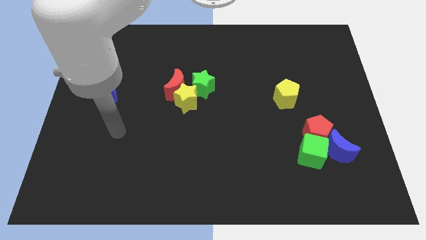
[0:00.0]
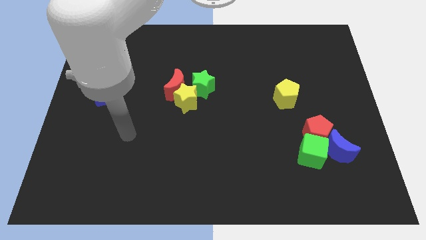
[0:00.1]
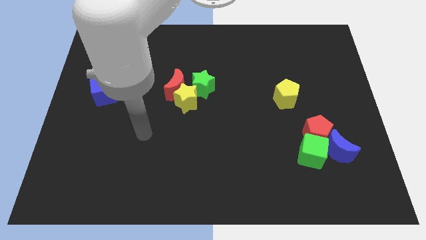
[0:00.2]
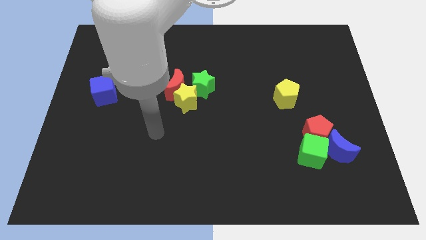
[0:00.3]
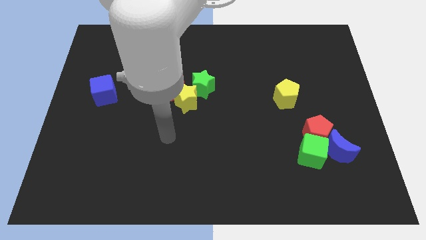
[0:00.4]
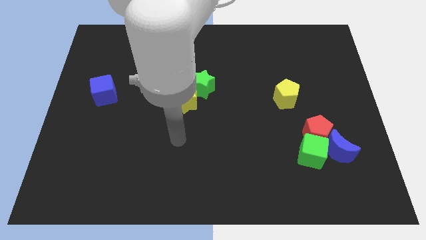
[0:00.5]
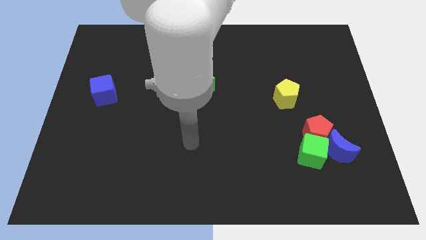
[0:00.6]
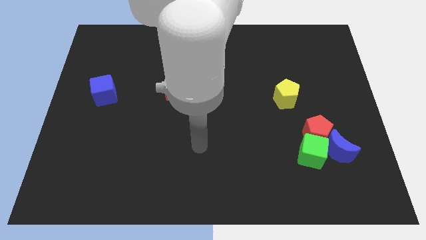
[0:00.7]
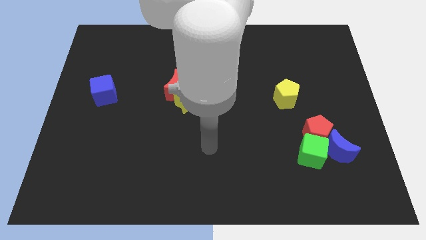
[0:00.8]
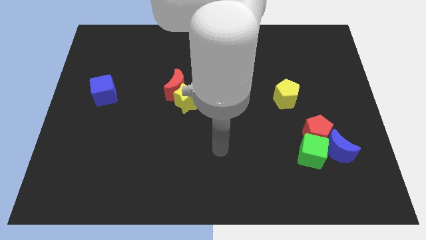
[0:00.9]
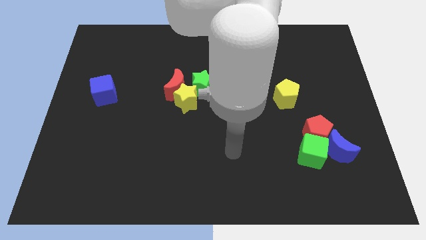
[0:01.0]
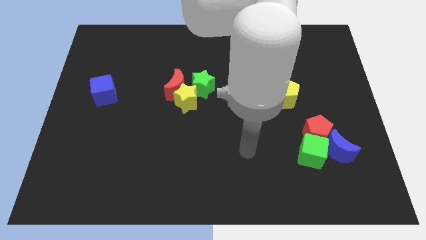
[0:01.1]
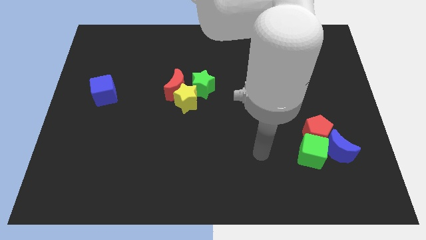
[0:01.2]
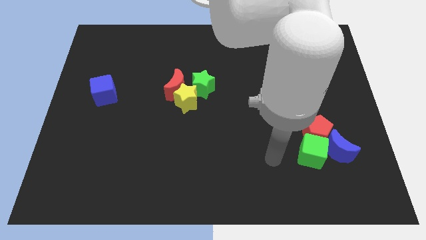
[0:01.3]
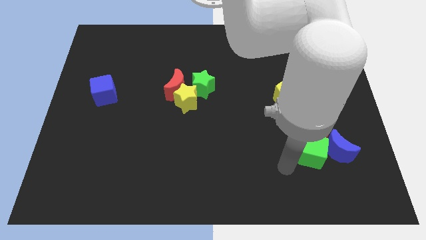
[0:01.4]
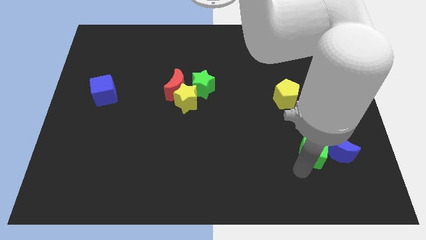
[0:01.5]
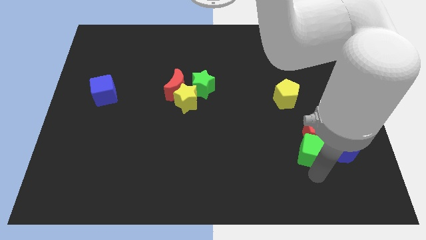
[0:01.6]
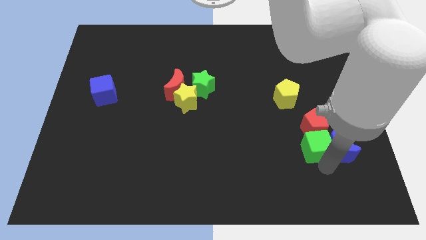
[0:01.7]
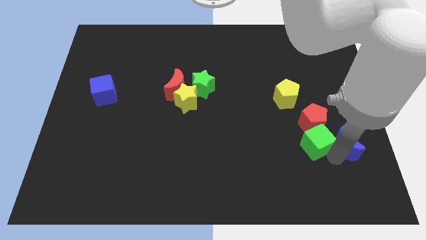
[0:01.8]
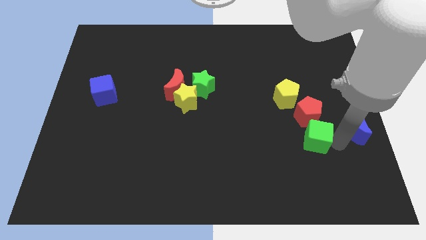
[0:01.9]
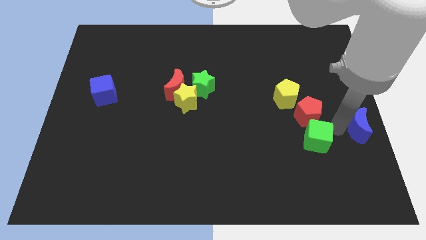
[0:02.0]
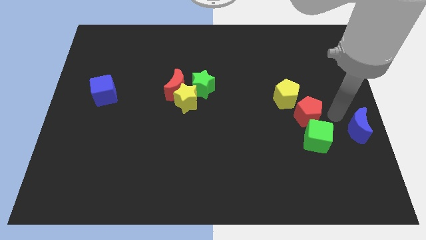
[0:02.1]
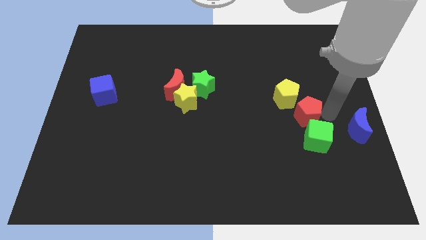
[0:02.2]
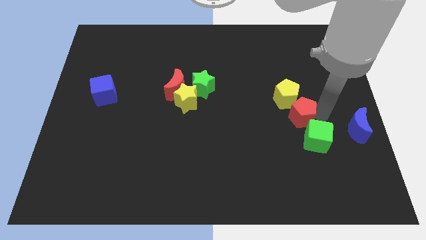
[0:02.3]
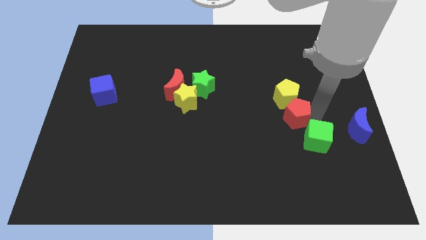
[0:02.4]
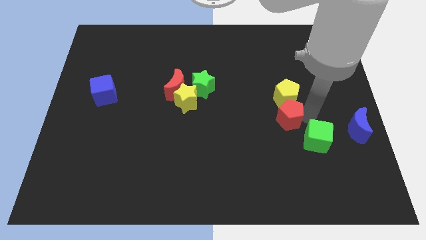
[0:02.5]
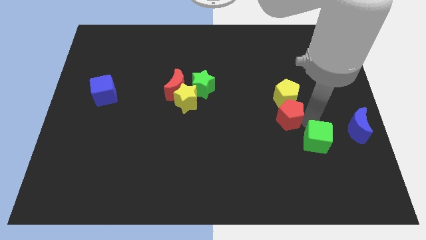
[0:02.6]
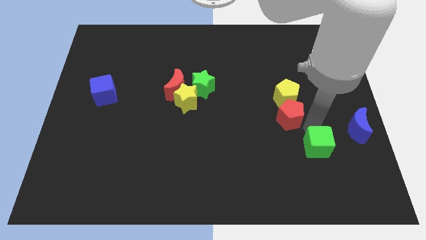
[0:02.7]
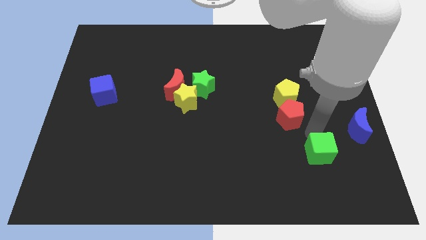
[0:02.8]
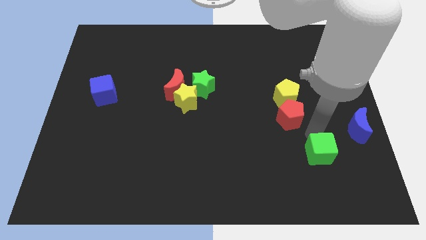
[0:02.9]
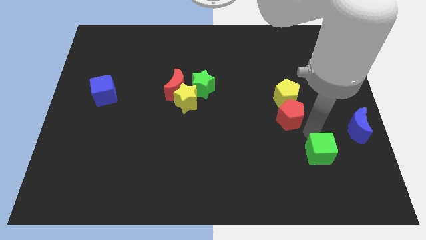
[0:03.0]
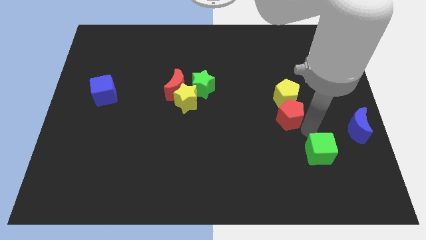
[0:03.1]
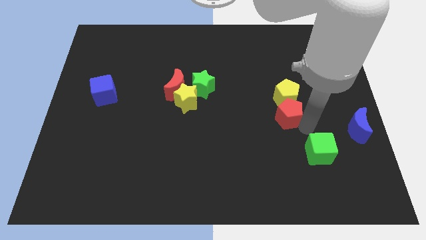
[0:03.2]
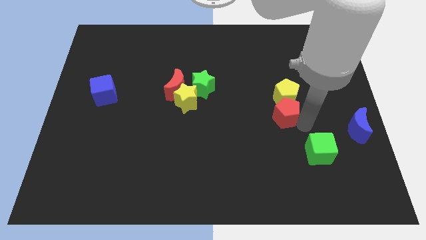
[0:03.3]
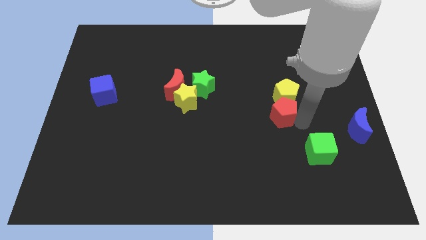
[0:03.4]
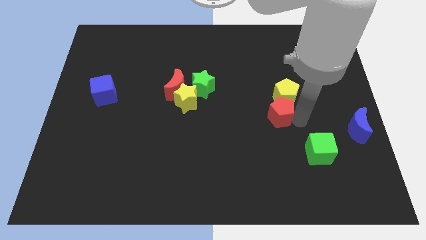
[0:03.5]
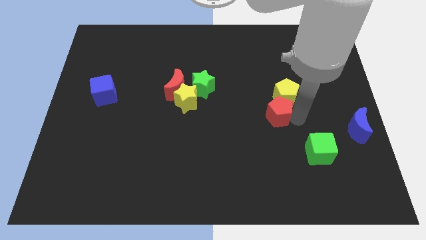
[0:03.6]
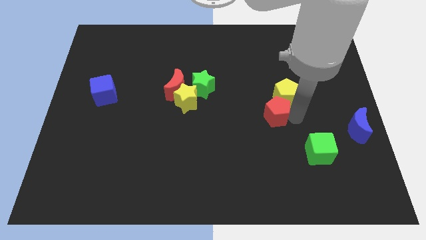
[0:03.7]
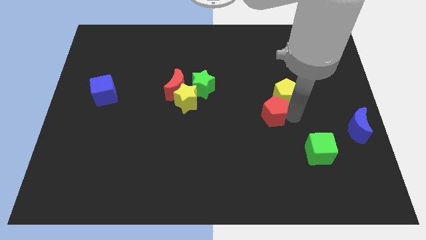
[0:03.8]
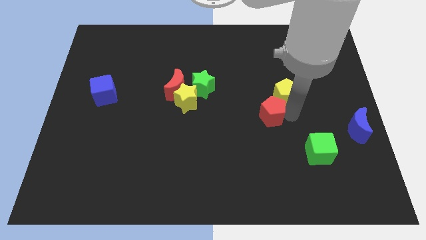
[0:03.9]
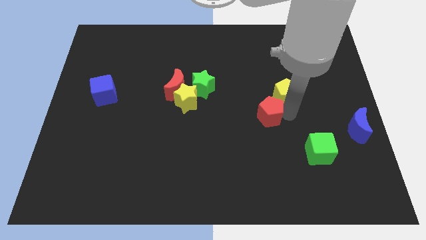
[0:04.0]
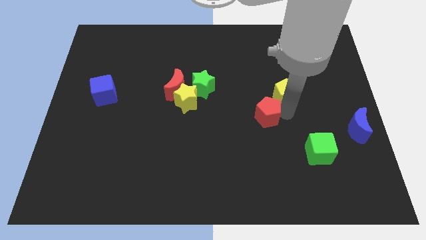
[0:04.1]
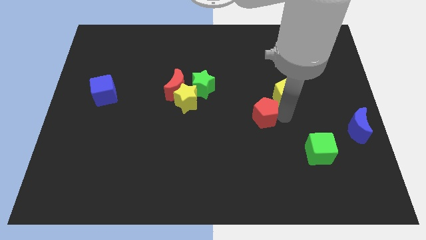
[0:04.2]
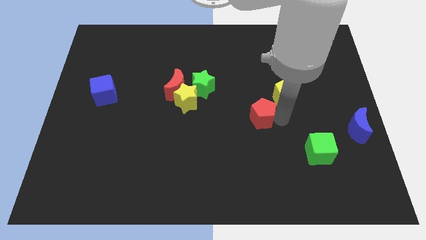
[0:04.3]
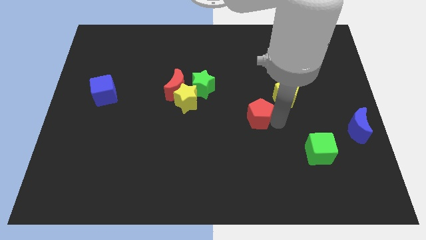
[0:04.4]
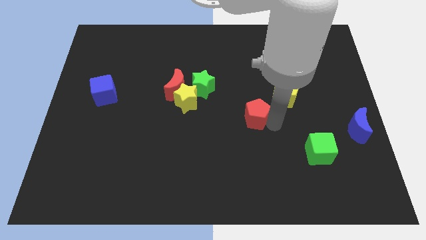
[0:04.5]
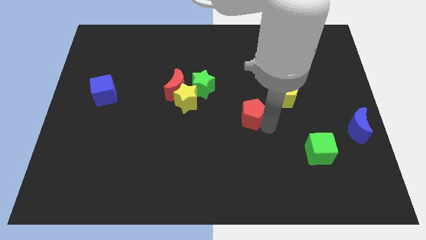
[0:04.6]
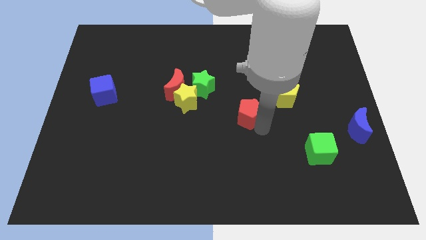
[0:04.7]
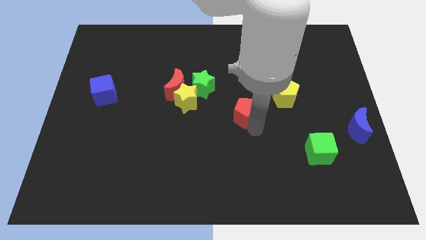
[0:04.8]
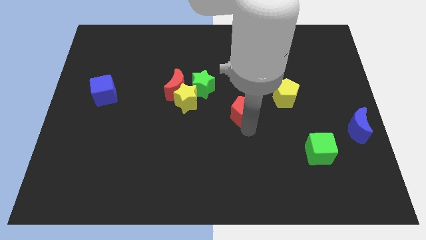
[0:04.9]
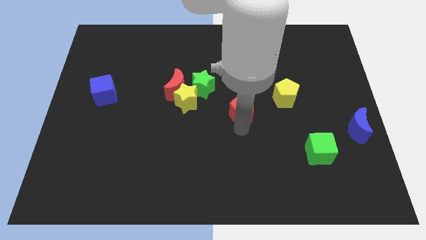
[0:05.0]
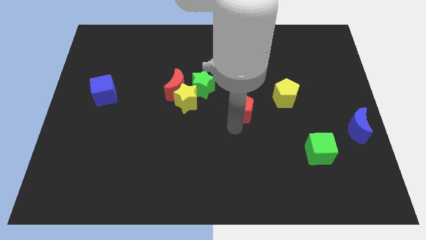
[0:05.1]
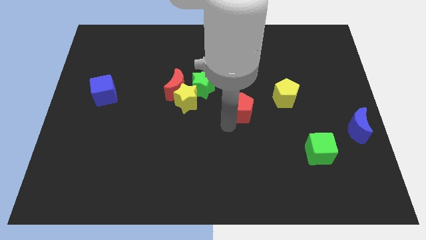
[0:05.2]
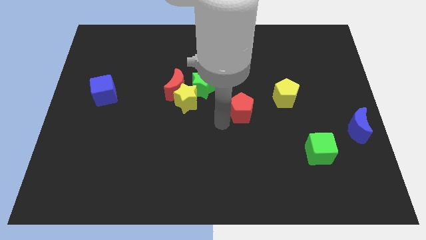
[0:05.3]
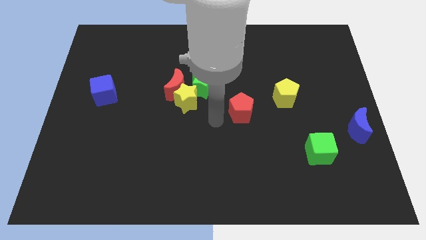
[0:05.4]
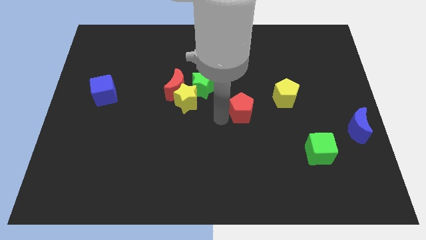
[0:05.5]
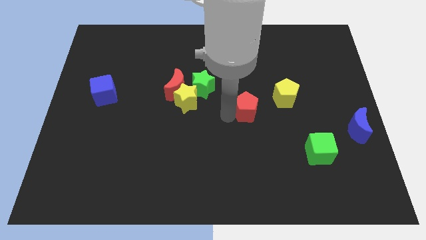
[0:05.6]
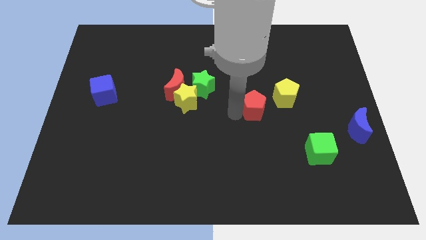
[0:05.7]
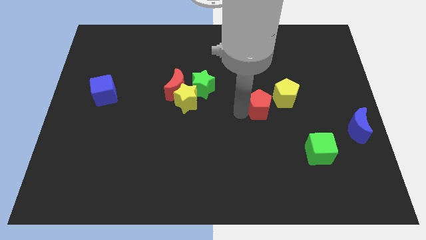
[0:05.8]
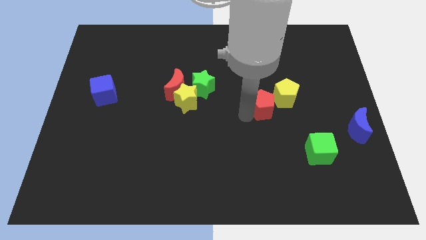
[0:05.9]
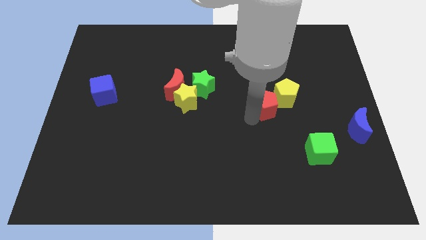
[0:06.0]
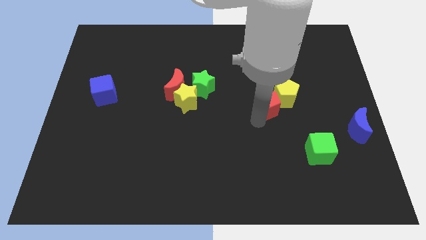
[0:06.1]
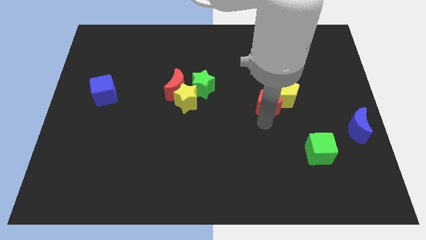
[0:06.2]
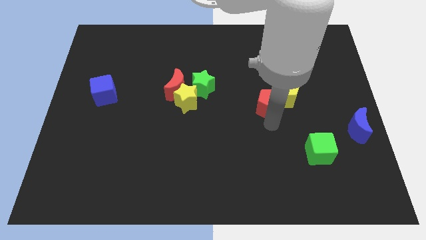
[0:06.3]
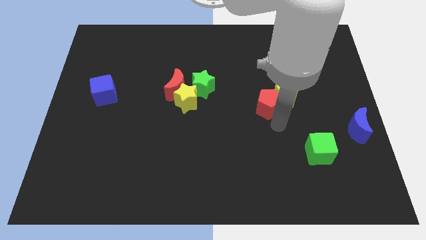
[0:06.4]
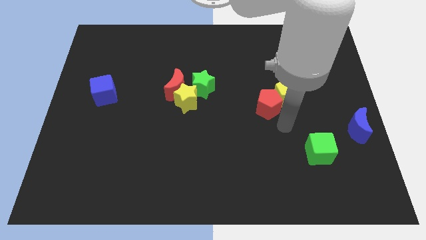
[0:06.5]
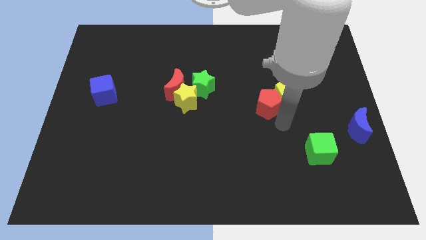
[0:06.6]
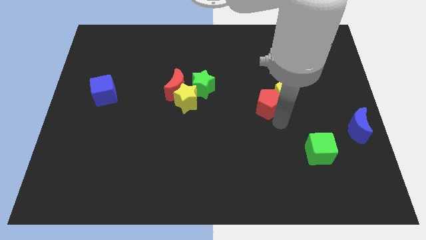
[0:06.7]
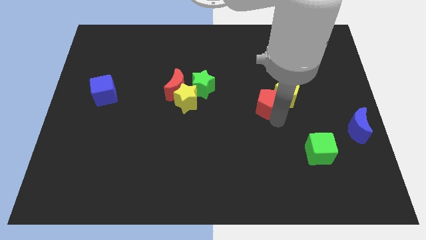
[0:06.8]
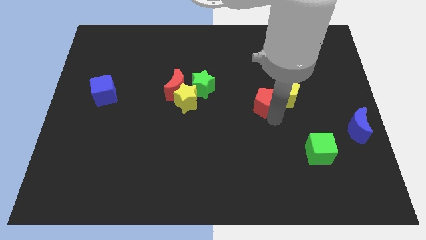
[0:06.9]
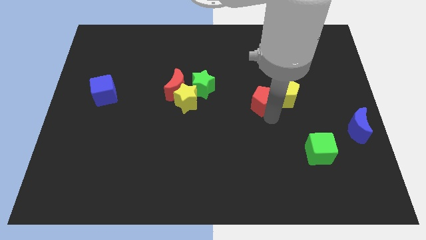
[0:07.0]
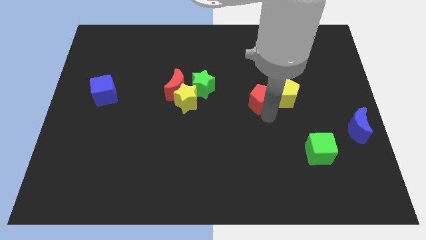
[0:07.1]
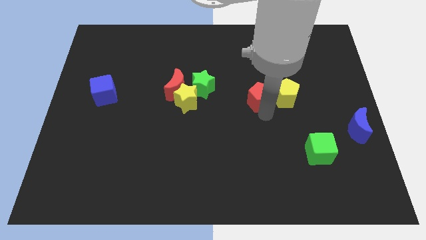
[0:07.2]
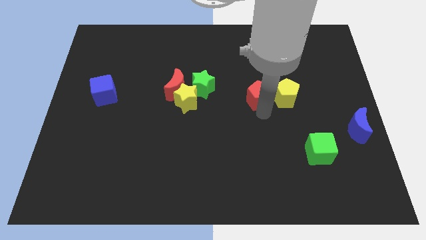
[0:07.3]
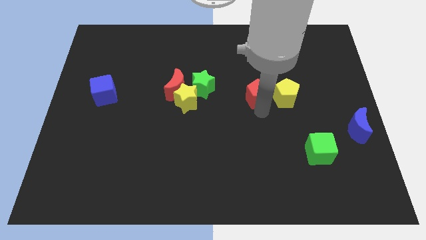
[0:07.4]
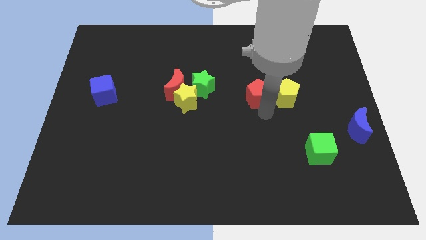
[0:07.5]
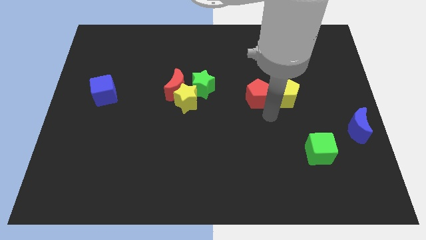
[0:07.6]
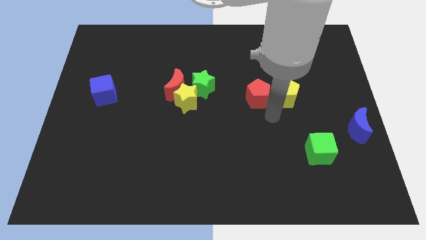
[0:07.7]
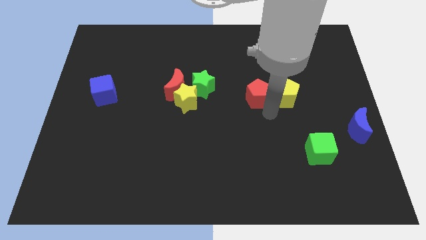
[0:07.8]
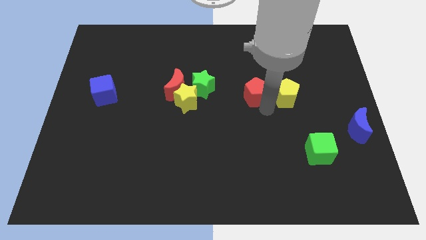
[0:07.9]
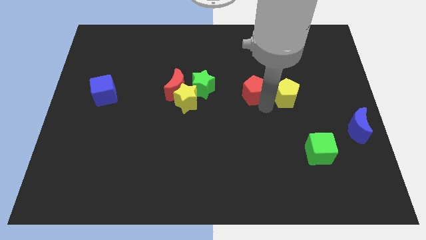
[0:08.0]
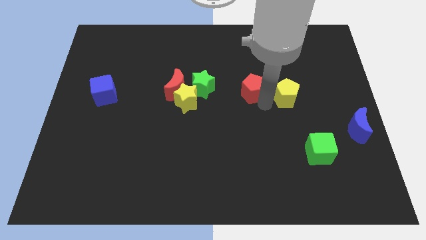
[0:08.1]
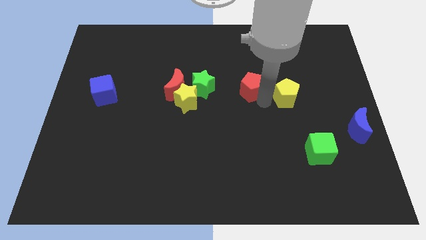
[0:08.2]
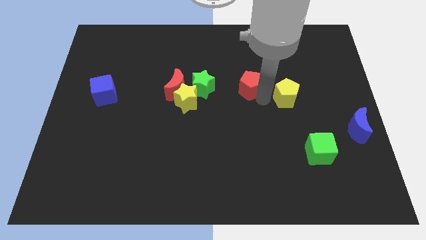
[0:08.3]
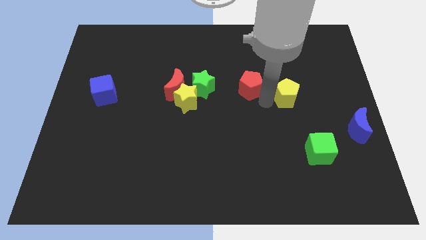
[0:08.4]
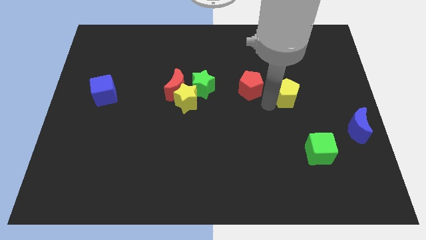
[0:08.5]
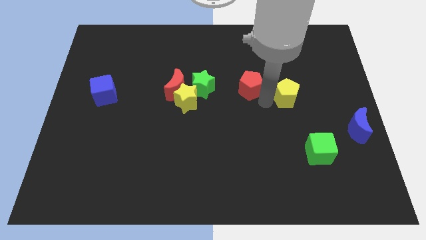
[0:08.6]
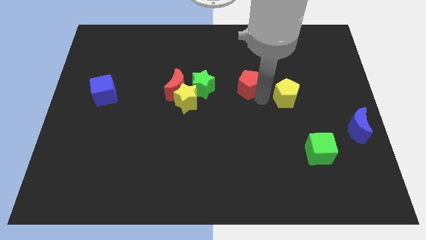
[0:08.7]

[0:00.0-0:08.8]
slide the red pentagon diagonally up and to the left
